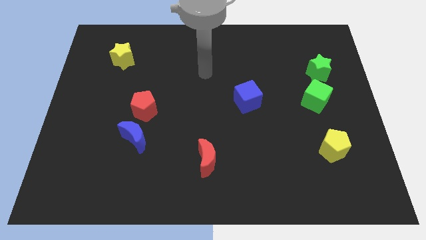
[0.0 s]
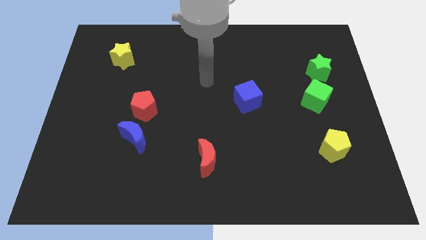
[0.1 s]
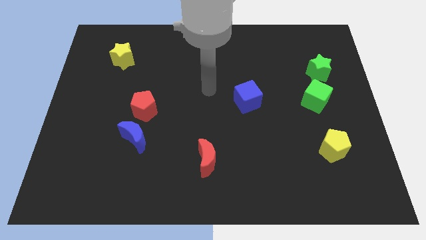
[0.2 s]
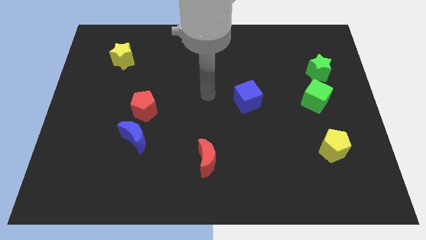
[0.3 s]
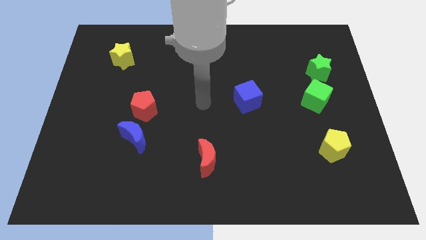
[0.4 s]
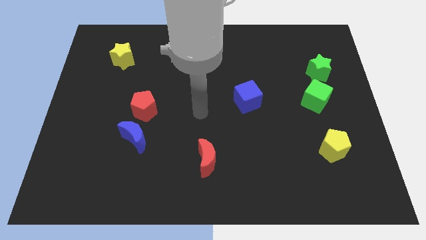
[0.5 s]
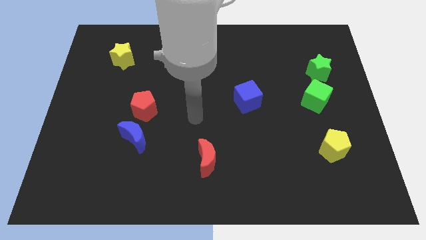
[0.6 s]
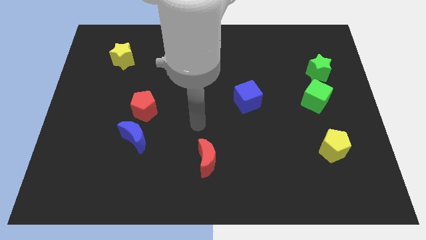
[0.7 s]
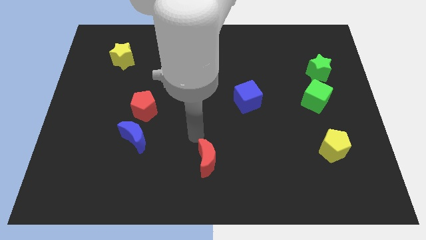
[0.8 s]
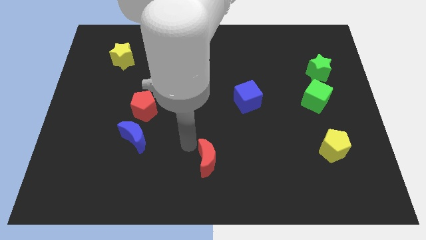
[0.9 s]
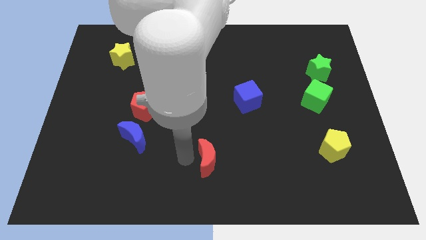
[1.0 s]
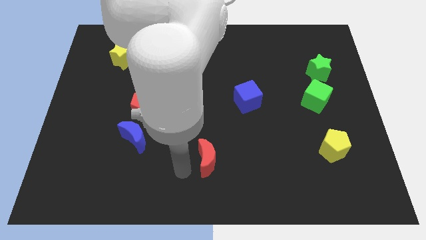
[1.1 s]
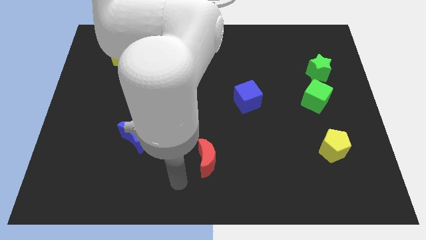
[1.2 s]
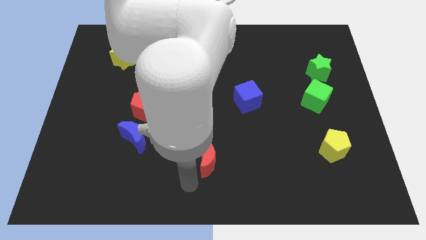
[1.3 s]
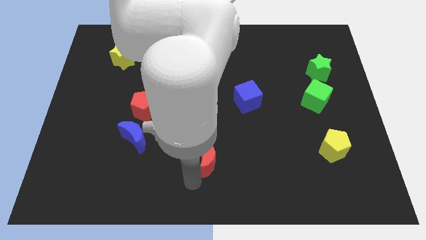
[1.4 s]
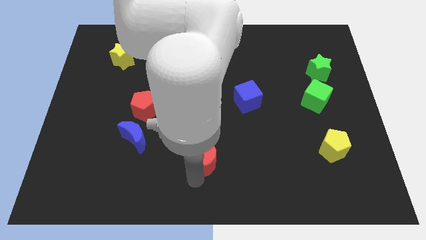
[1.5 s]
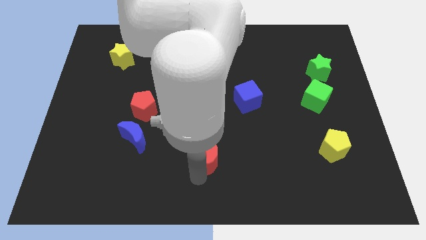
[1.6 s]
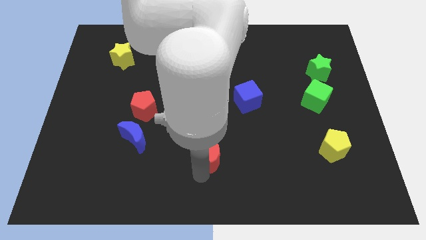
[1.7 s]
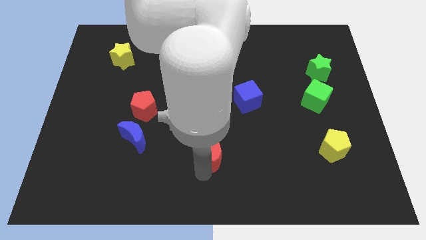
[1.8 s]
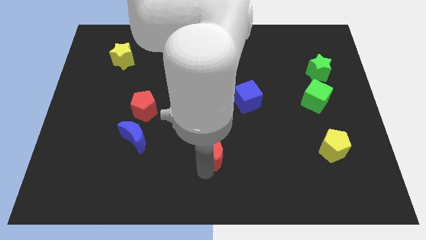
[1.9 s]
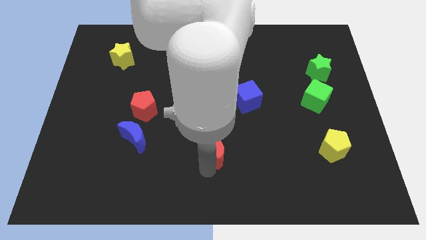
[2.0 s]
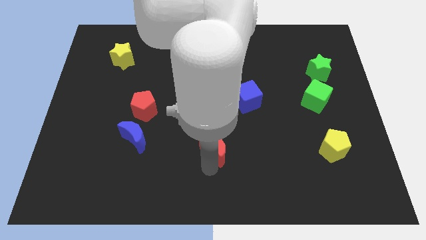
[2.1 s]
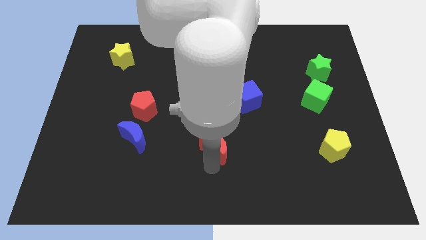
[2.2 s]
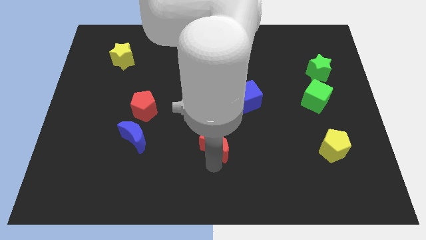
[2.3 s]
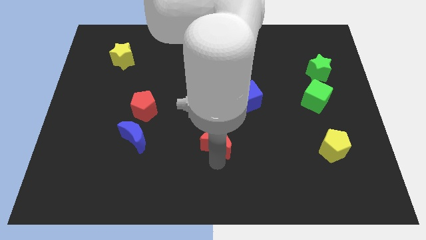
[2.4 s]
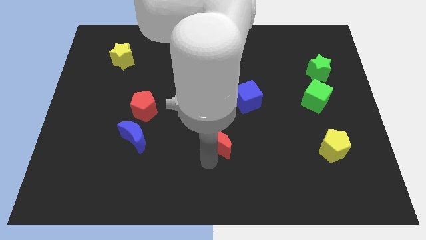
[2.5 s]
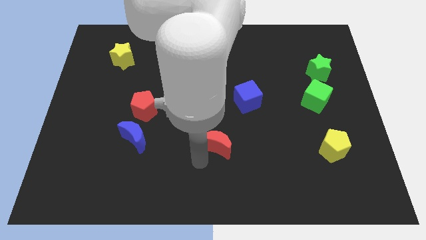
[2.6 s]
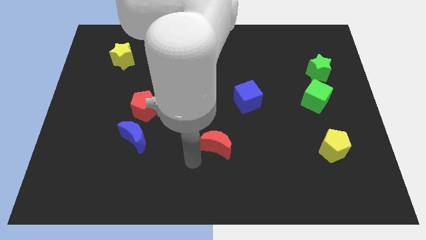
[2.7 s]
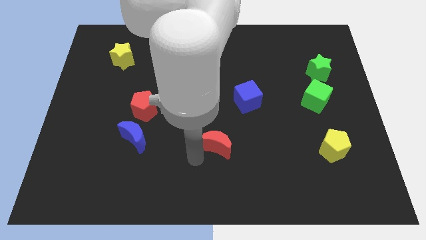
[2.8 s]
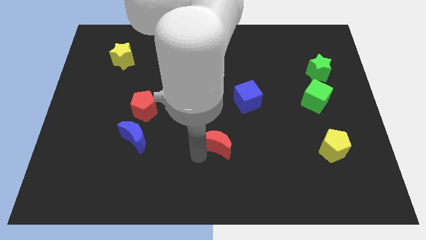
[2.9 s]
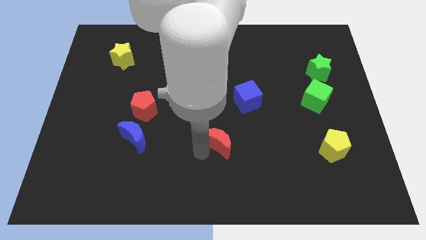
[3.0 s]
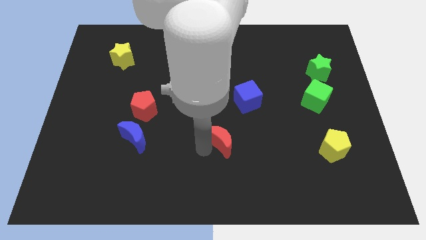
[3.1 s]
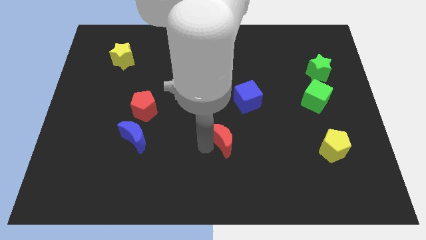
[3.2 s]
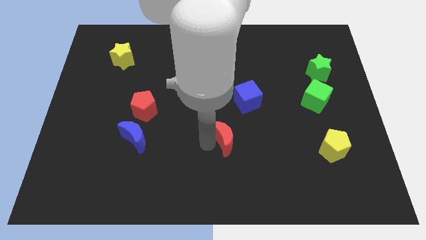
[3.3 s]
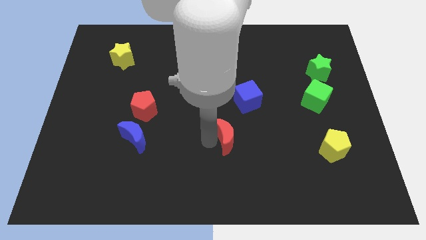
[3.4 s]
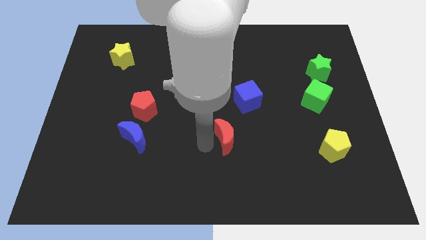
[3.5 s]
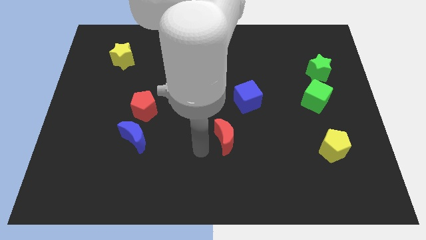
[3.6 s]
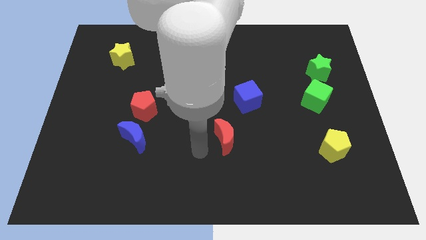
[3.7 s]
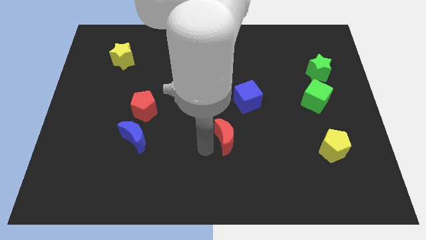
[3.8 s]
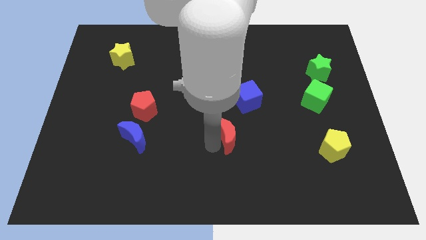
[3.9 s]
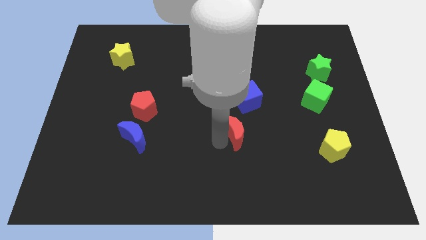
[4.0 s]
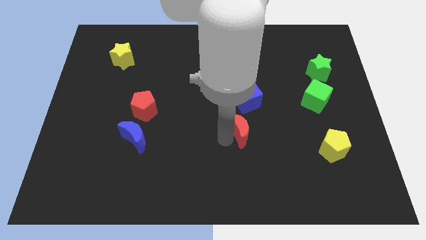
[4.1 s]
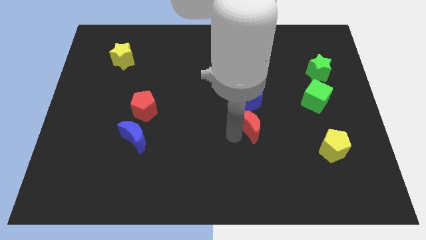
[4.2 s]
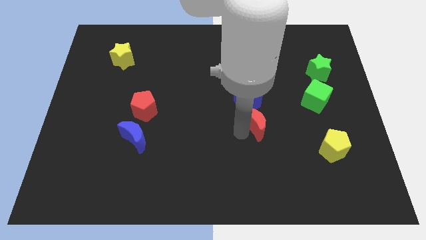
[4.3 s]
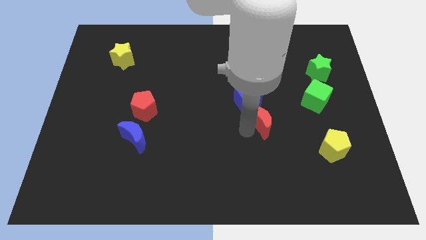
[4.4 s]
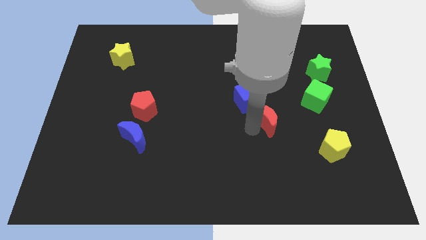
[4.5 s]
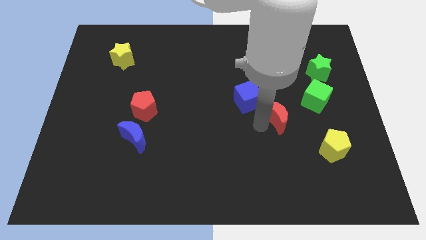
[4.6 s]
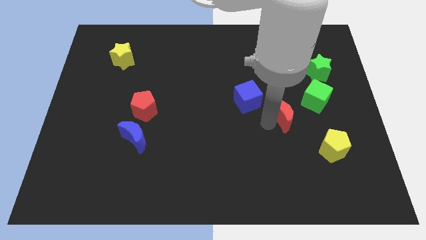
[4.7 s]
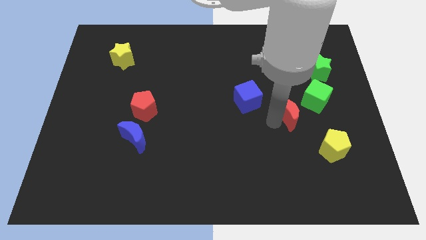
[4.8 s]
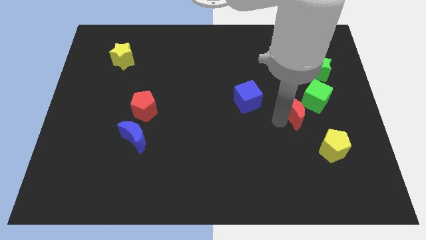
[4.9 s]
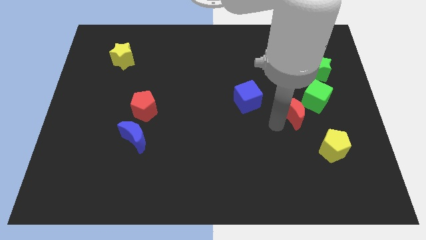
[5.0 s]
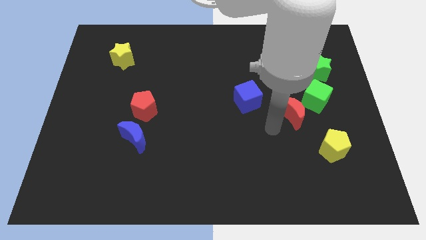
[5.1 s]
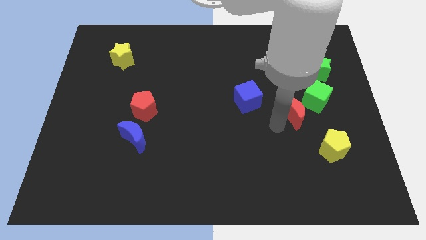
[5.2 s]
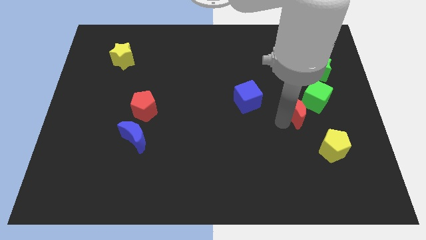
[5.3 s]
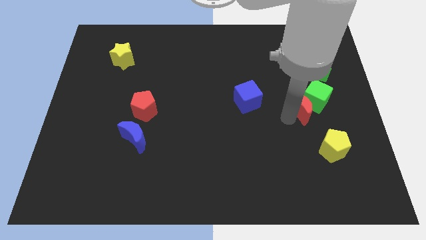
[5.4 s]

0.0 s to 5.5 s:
push the red moon next to the green cube

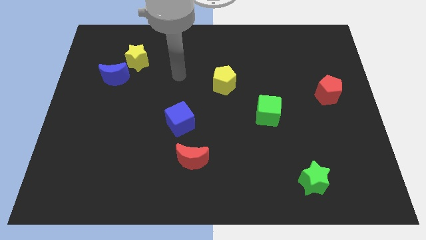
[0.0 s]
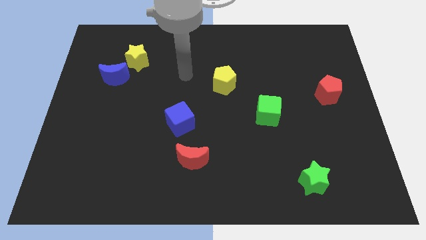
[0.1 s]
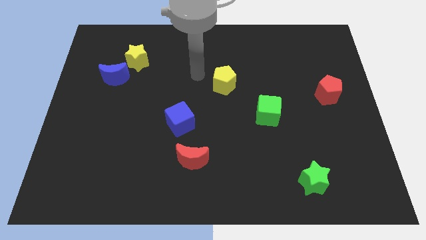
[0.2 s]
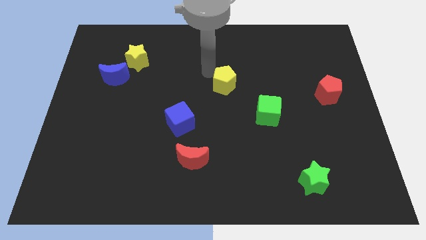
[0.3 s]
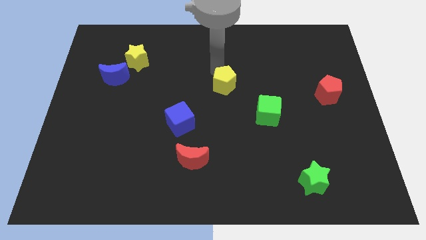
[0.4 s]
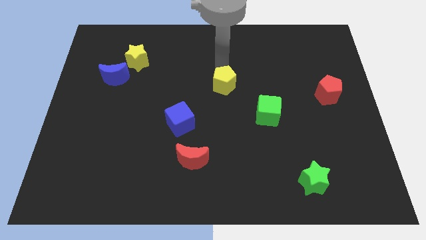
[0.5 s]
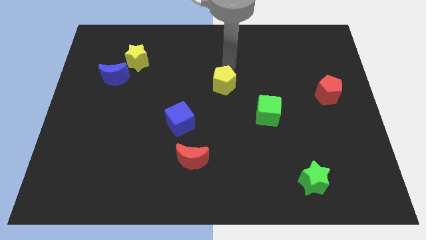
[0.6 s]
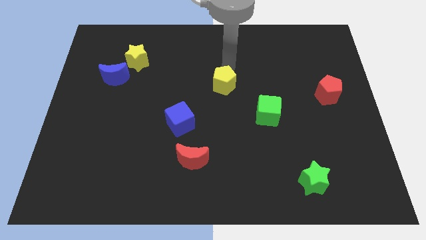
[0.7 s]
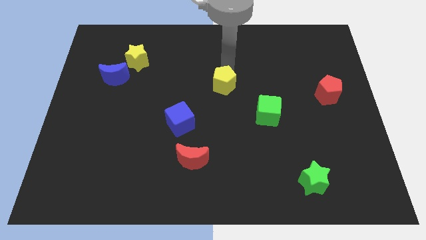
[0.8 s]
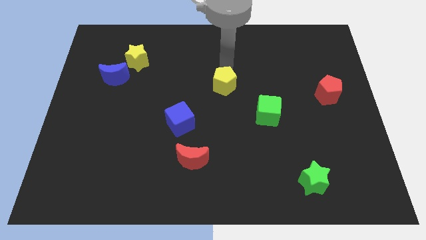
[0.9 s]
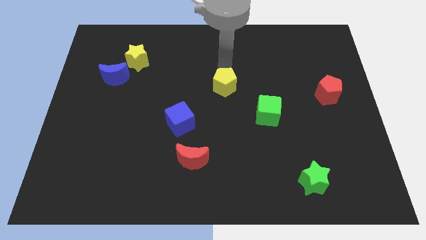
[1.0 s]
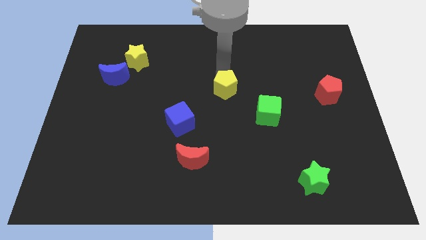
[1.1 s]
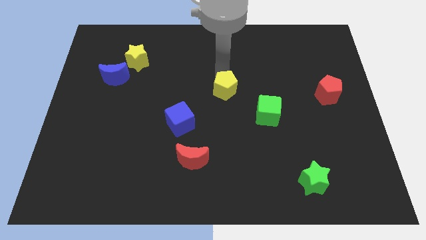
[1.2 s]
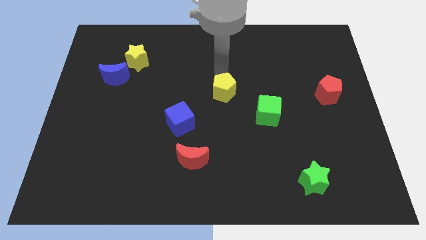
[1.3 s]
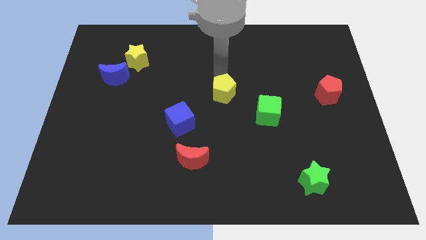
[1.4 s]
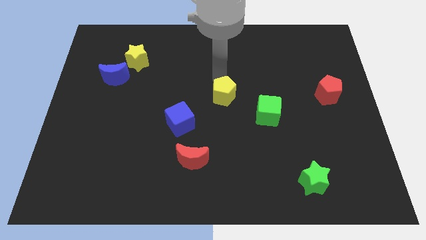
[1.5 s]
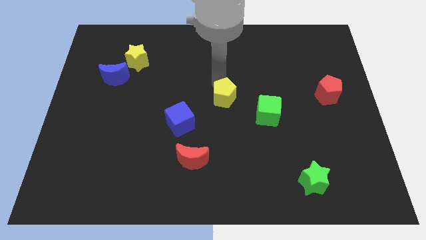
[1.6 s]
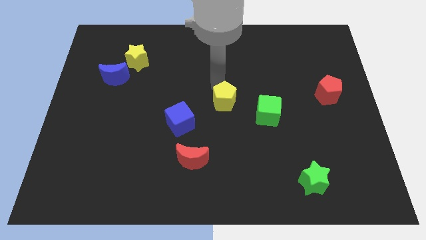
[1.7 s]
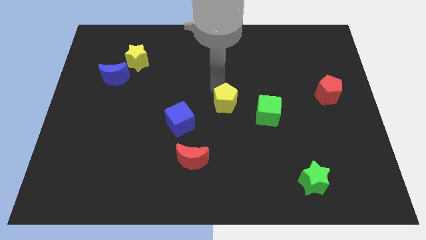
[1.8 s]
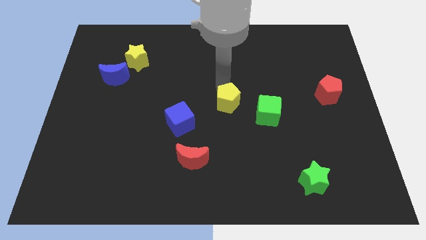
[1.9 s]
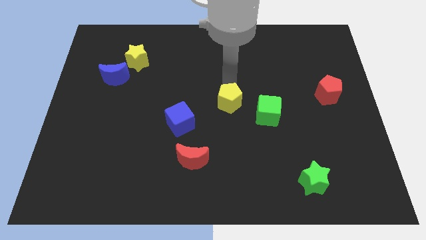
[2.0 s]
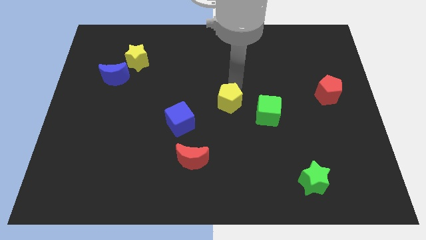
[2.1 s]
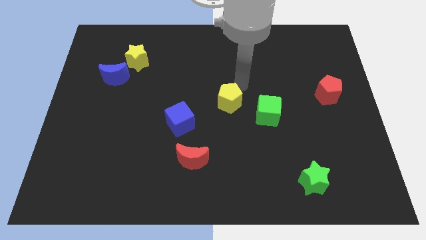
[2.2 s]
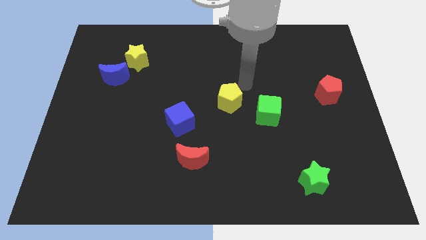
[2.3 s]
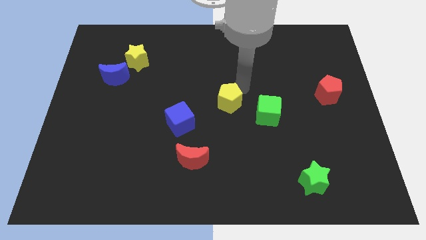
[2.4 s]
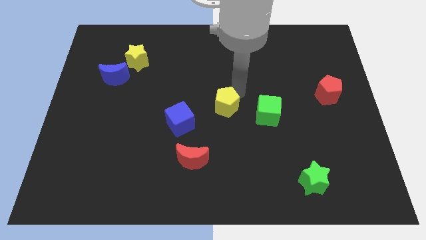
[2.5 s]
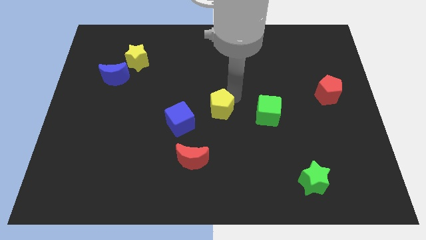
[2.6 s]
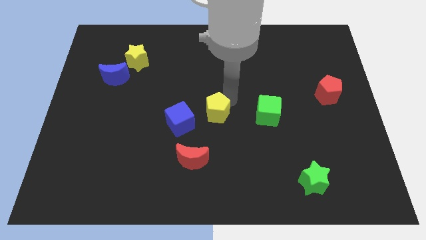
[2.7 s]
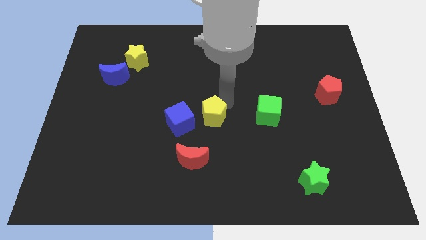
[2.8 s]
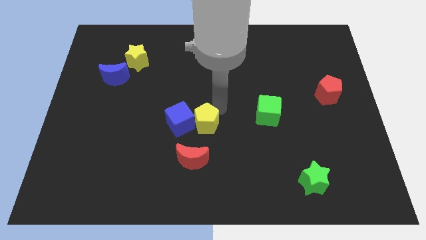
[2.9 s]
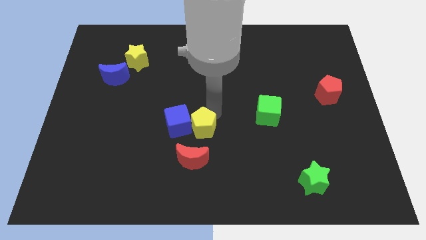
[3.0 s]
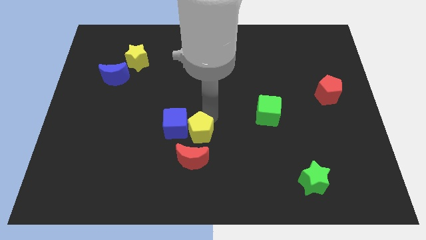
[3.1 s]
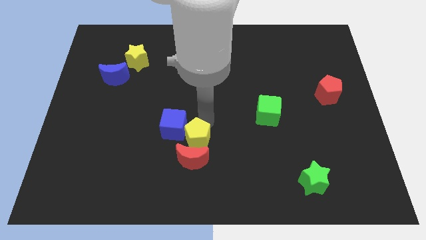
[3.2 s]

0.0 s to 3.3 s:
push the yellow pentagon next to the red moon
